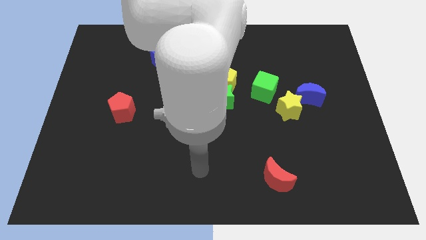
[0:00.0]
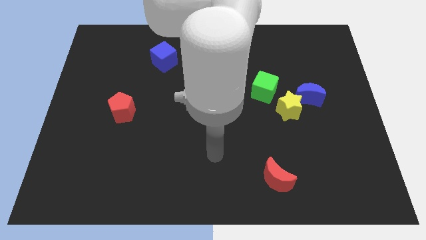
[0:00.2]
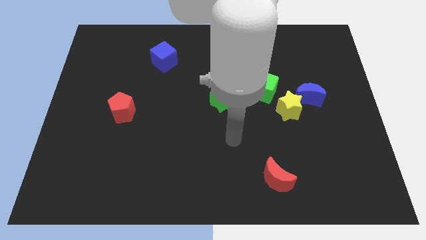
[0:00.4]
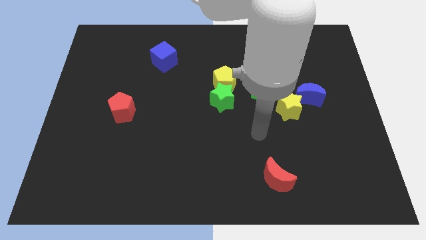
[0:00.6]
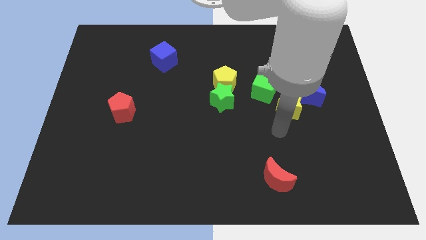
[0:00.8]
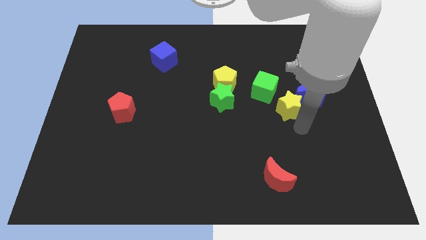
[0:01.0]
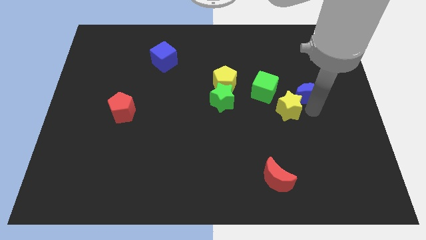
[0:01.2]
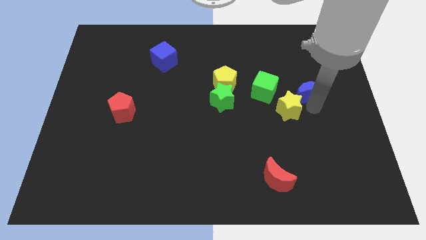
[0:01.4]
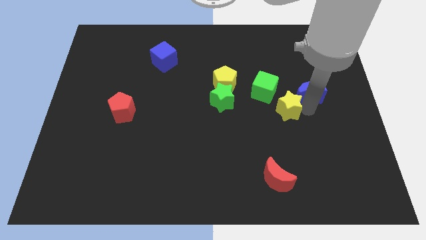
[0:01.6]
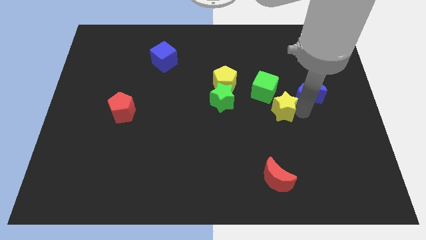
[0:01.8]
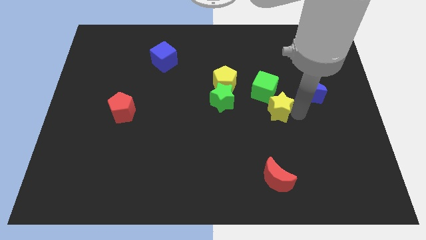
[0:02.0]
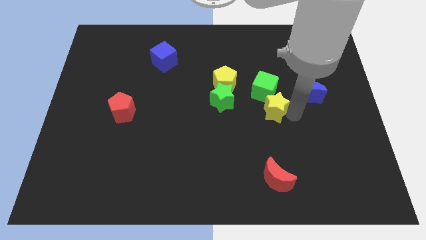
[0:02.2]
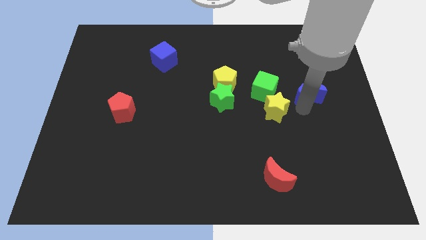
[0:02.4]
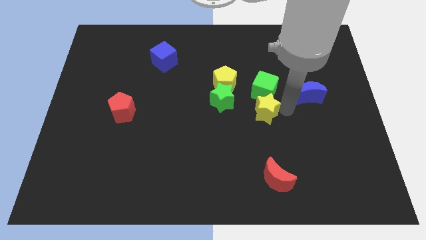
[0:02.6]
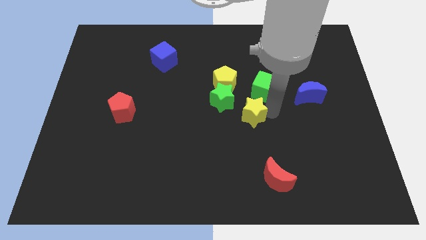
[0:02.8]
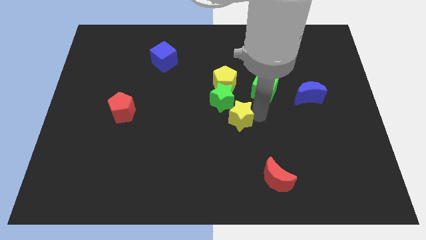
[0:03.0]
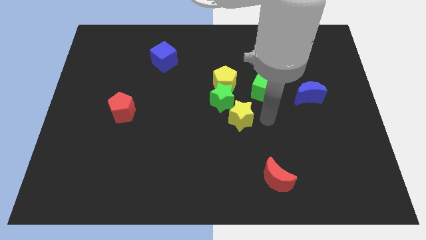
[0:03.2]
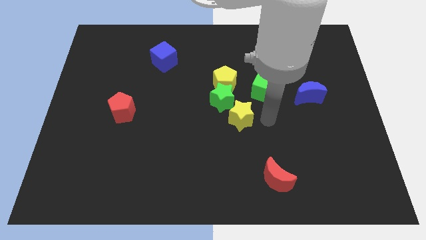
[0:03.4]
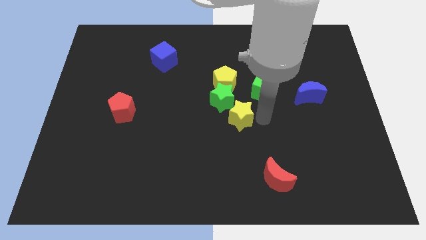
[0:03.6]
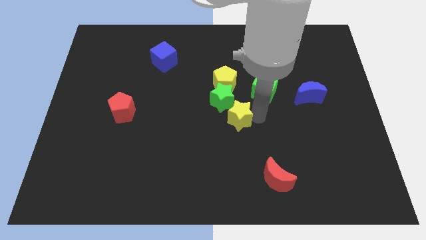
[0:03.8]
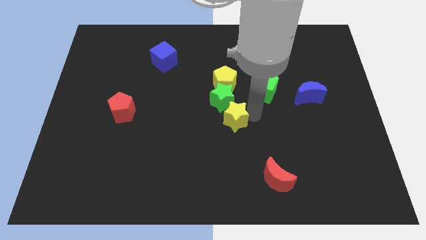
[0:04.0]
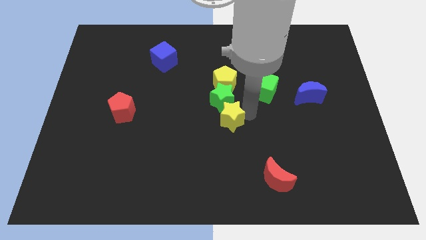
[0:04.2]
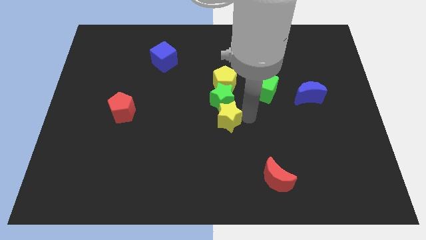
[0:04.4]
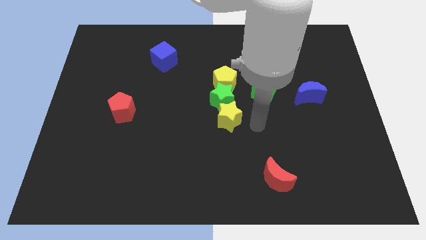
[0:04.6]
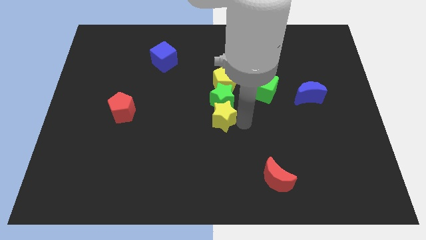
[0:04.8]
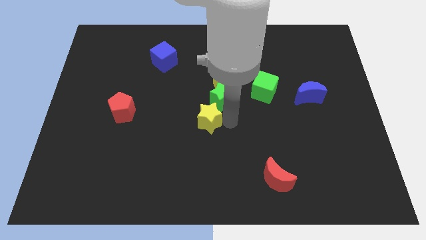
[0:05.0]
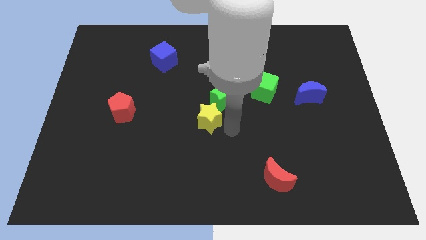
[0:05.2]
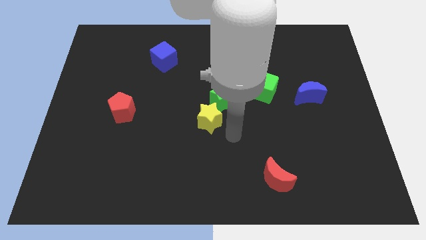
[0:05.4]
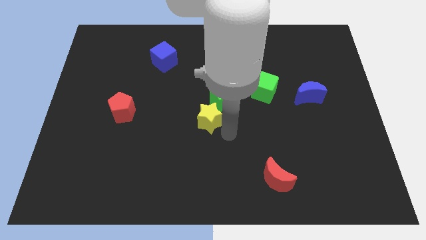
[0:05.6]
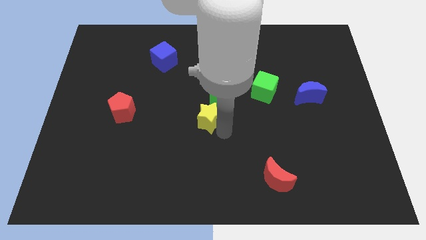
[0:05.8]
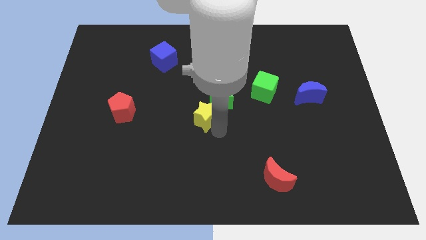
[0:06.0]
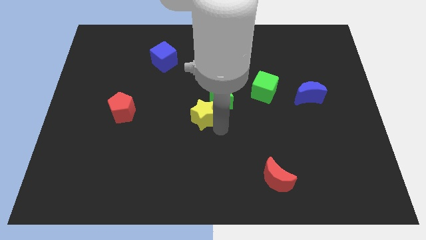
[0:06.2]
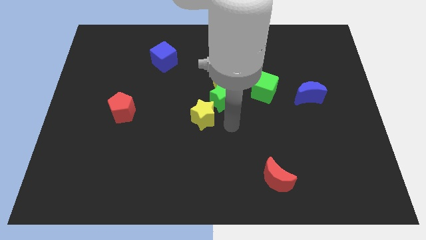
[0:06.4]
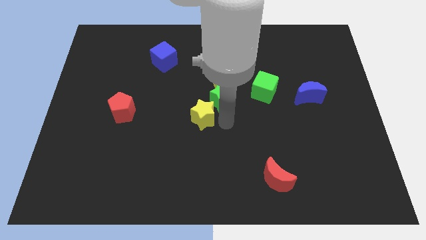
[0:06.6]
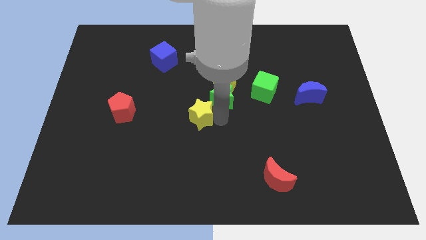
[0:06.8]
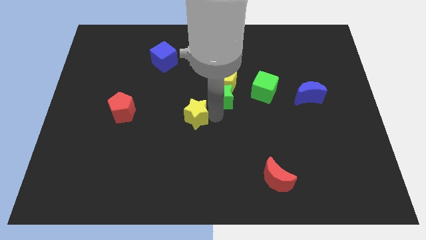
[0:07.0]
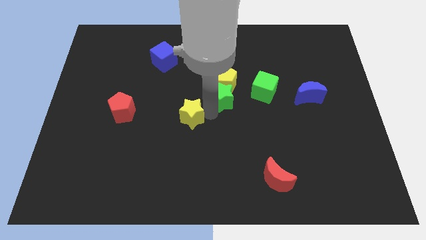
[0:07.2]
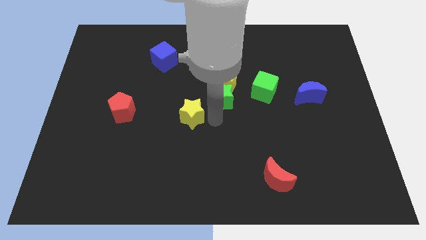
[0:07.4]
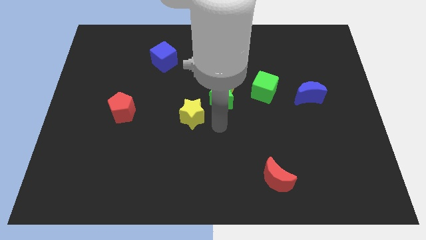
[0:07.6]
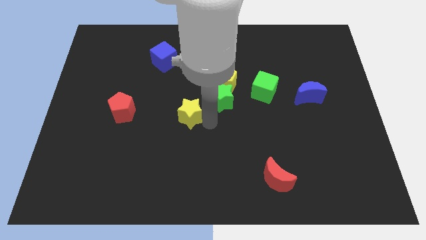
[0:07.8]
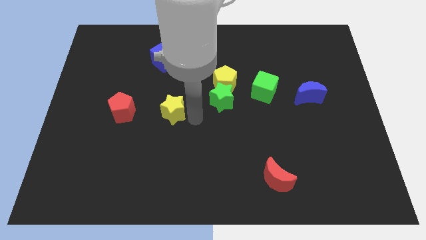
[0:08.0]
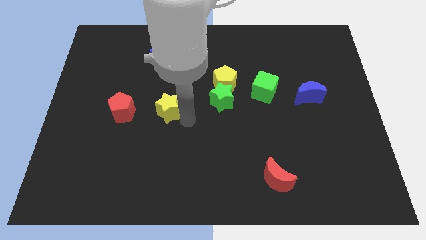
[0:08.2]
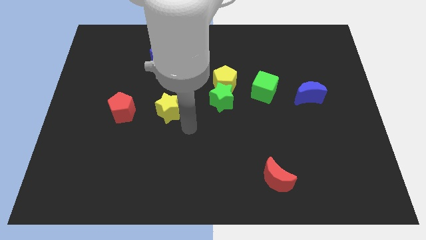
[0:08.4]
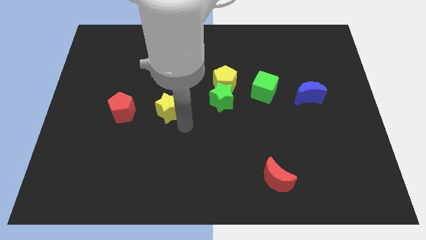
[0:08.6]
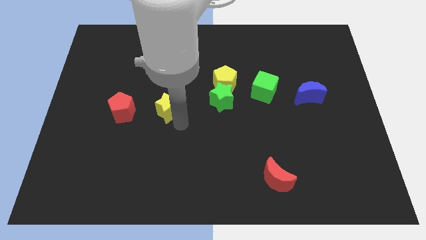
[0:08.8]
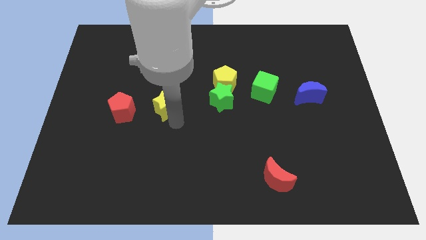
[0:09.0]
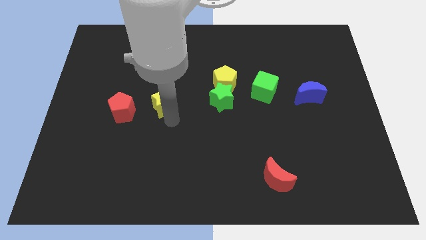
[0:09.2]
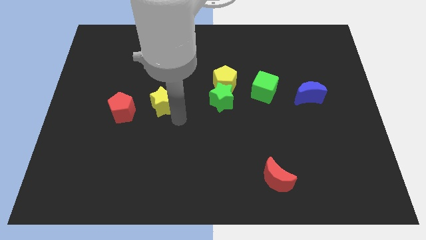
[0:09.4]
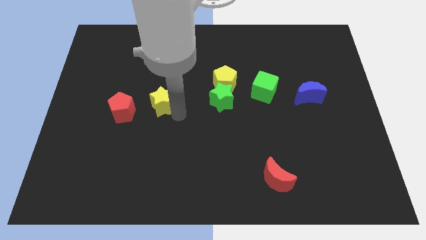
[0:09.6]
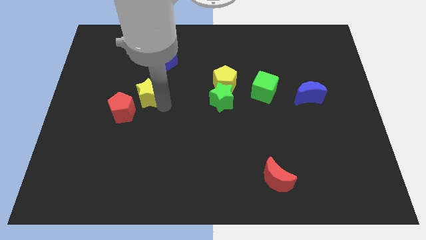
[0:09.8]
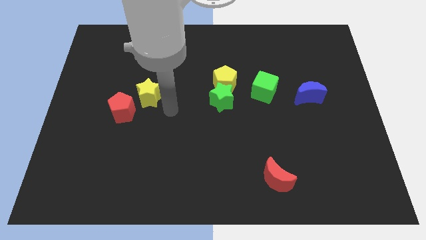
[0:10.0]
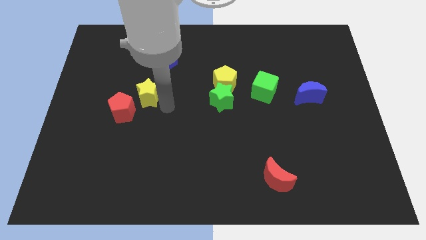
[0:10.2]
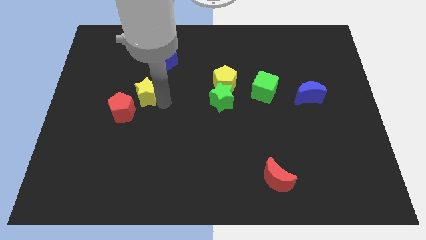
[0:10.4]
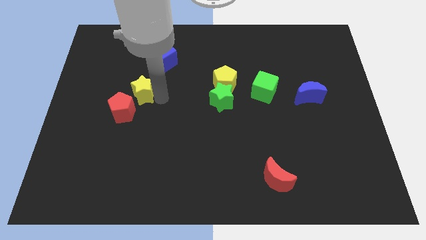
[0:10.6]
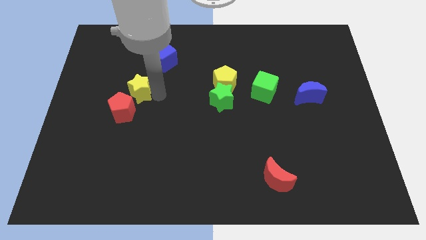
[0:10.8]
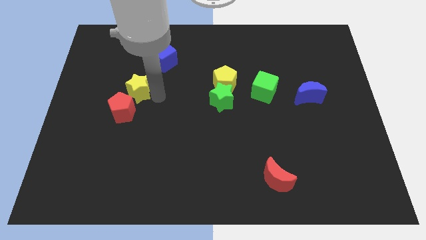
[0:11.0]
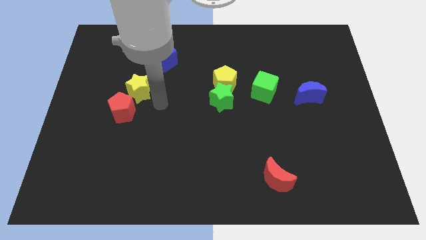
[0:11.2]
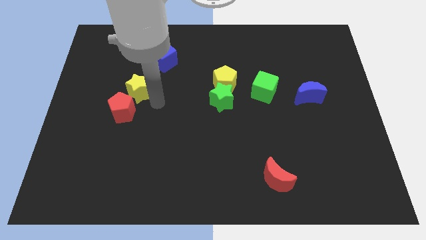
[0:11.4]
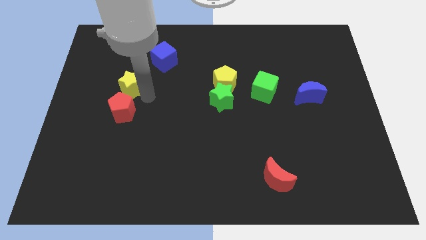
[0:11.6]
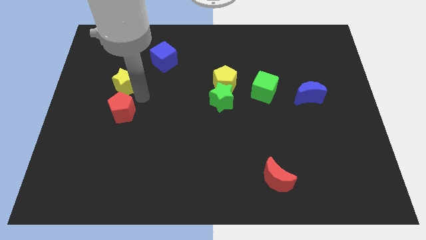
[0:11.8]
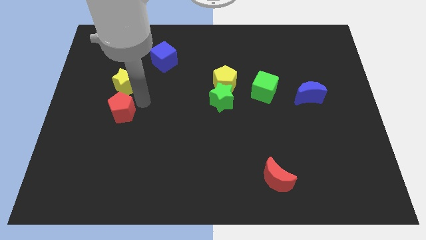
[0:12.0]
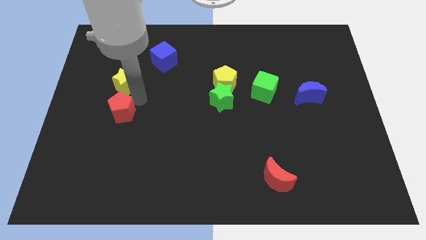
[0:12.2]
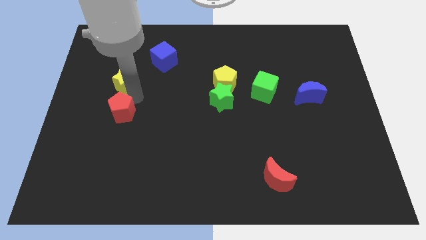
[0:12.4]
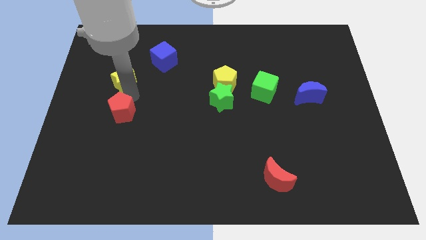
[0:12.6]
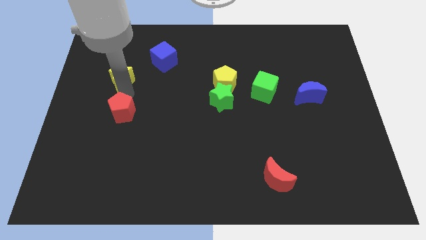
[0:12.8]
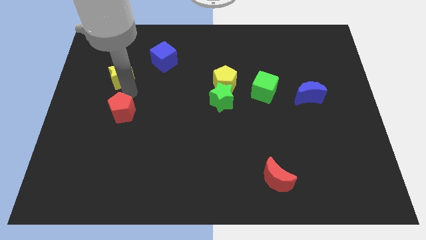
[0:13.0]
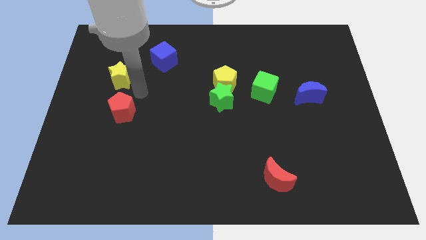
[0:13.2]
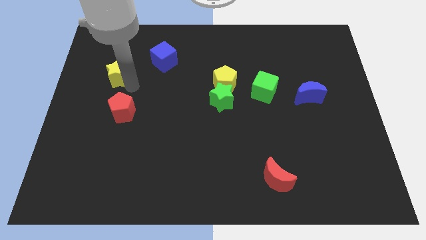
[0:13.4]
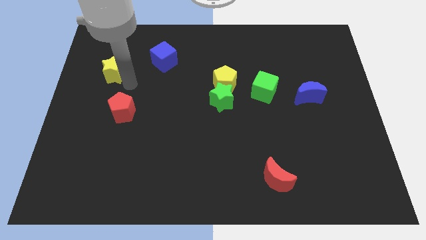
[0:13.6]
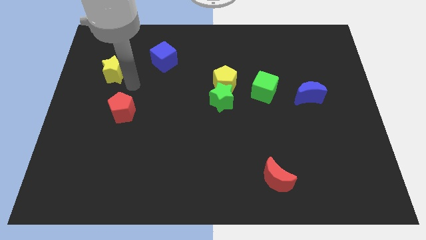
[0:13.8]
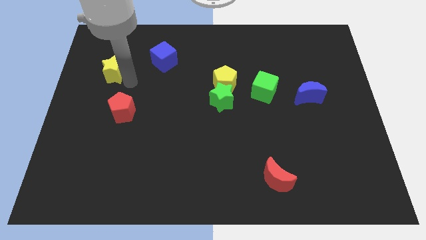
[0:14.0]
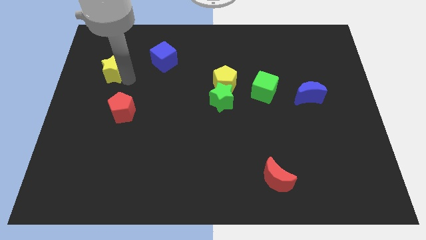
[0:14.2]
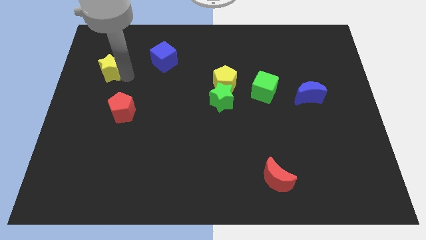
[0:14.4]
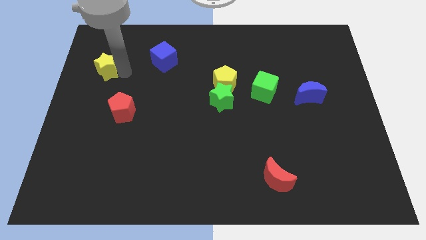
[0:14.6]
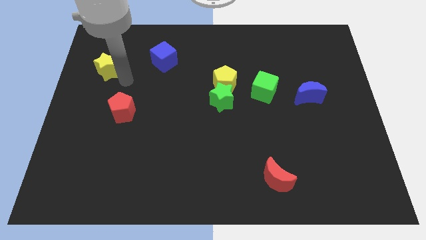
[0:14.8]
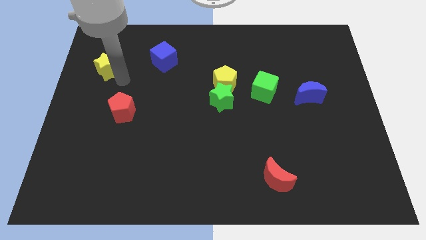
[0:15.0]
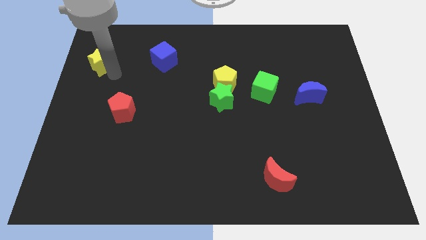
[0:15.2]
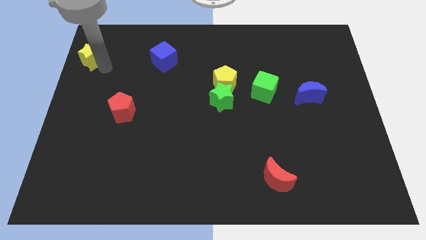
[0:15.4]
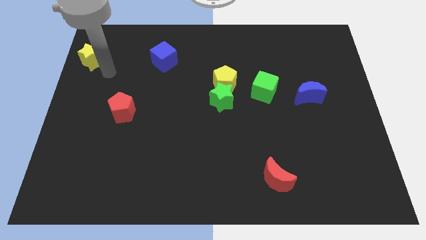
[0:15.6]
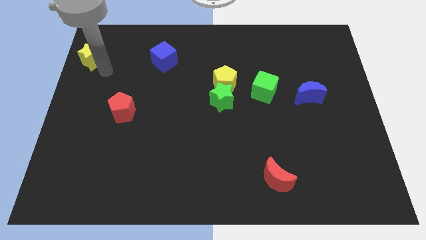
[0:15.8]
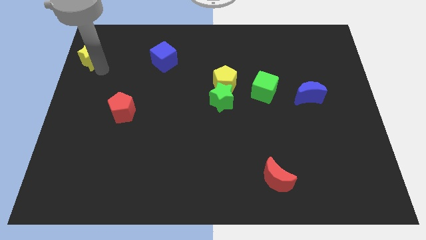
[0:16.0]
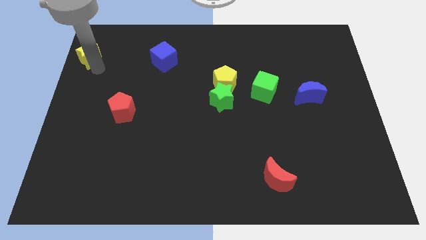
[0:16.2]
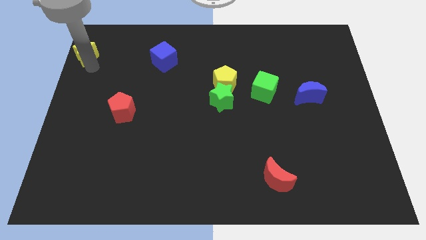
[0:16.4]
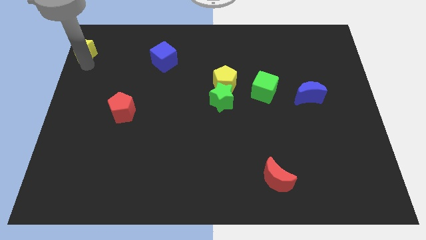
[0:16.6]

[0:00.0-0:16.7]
push the yellow star to the top left
